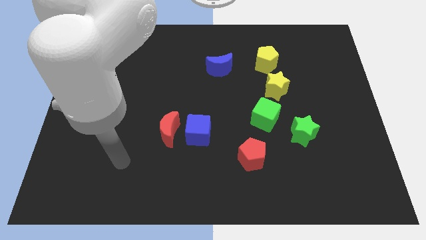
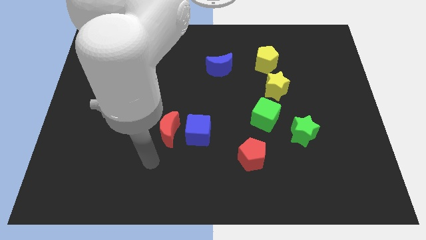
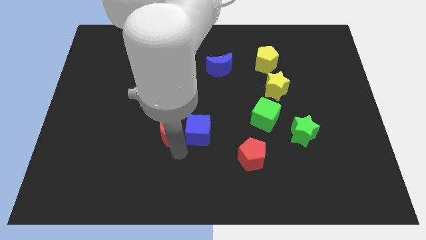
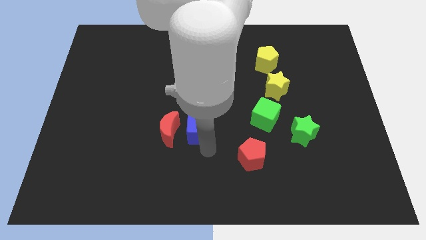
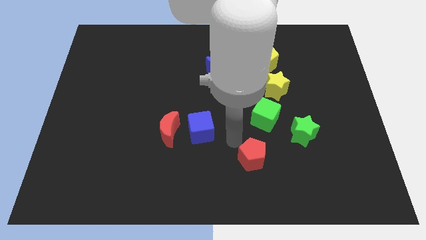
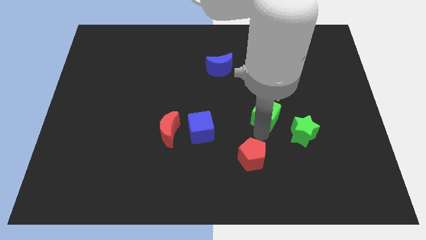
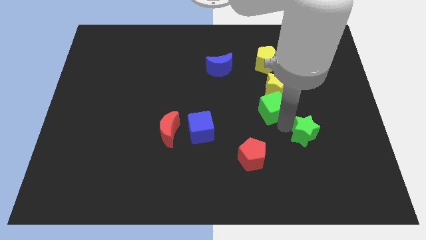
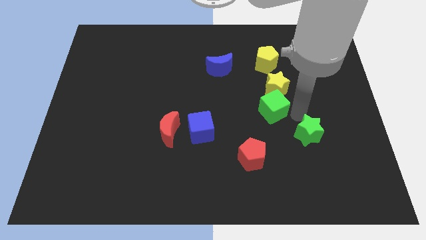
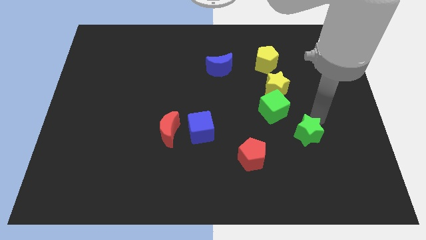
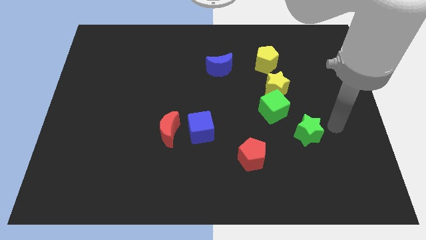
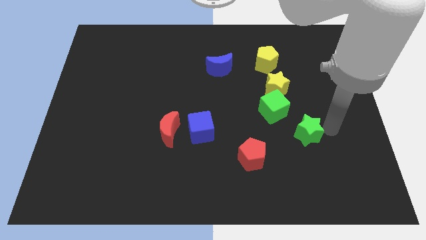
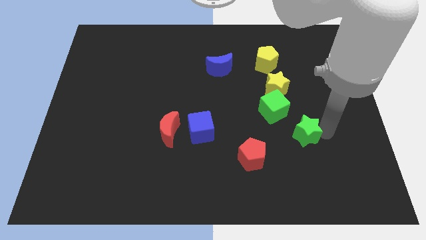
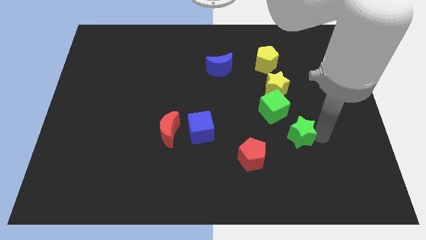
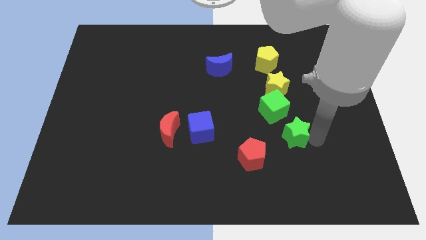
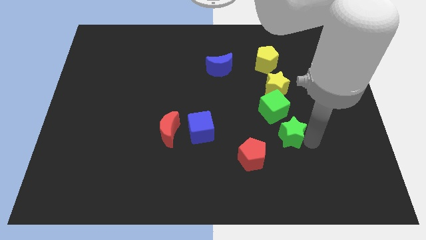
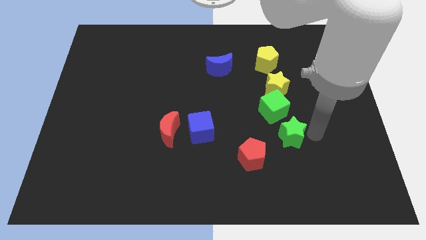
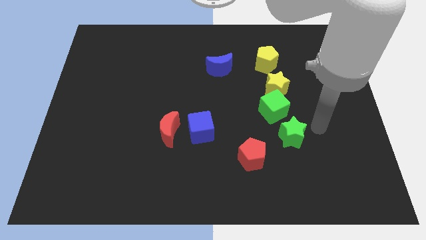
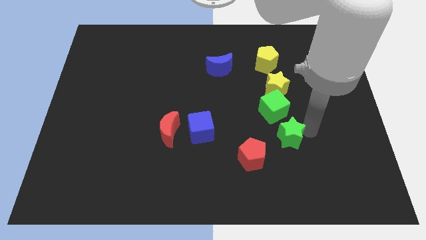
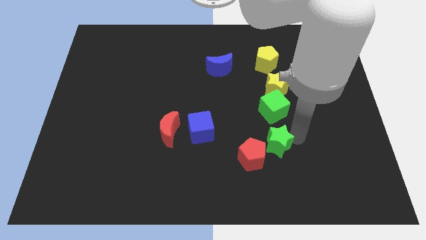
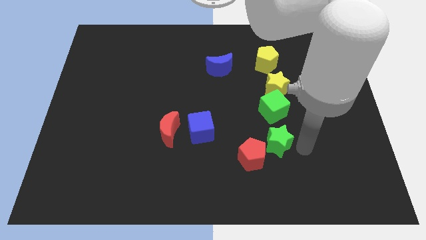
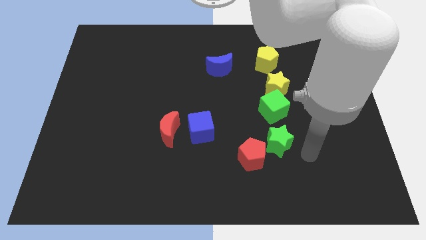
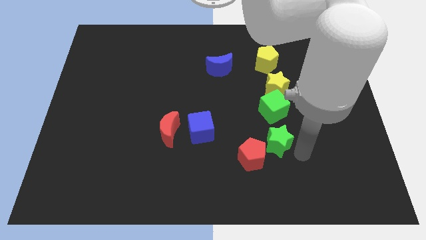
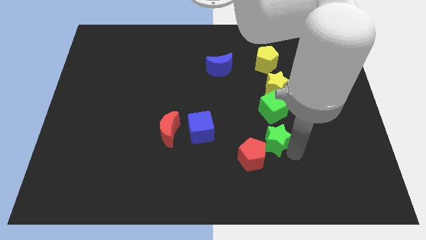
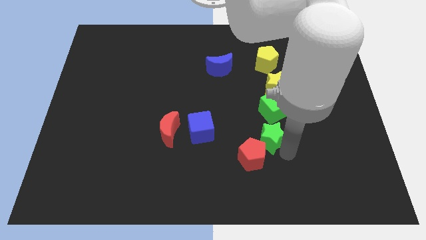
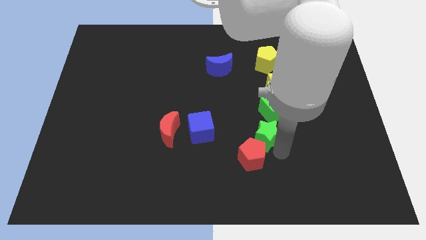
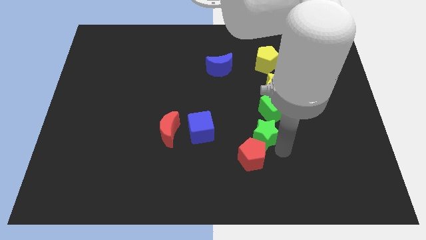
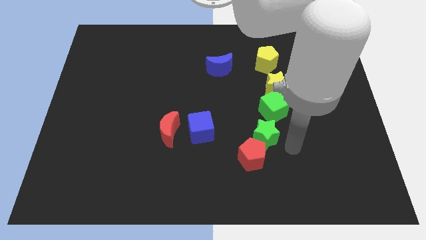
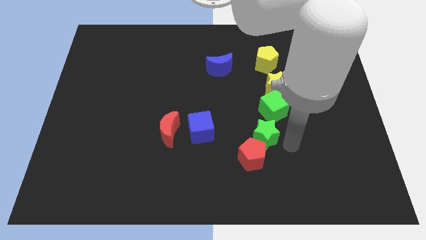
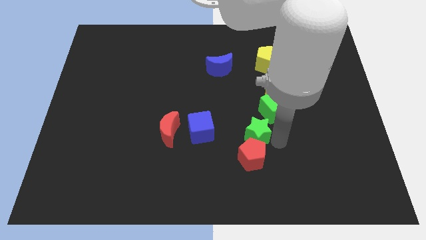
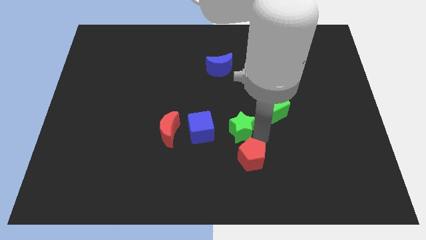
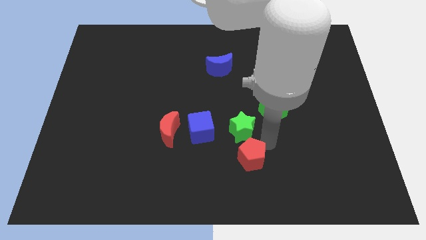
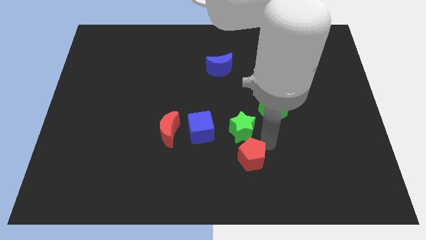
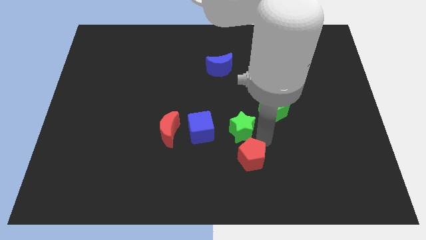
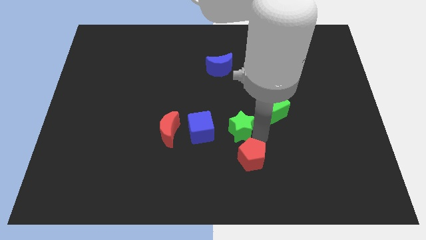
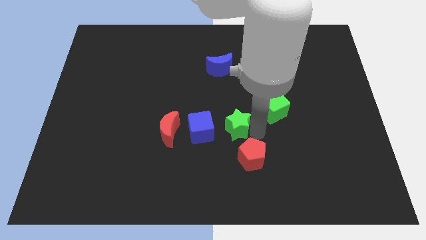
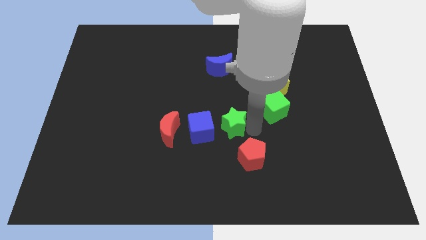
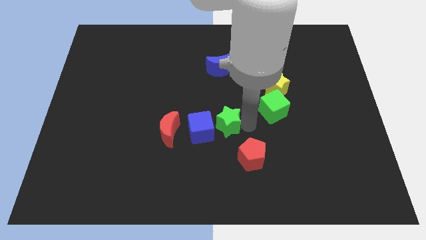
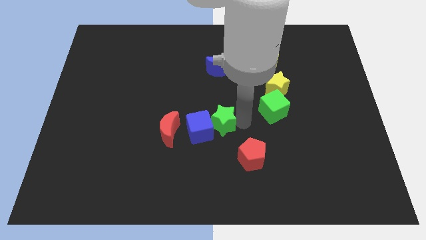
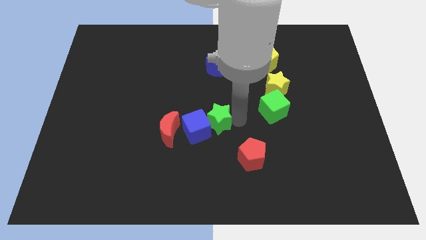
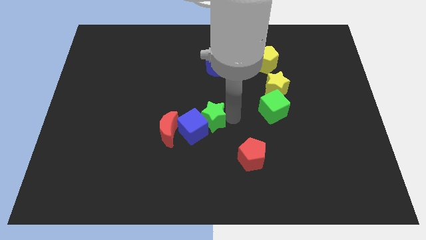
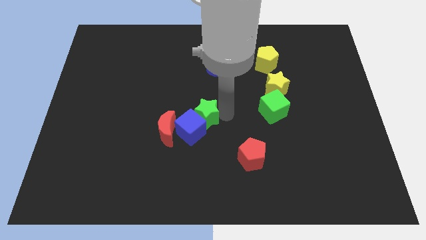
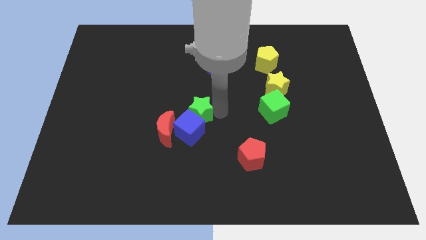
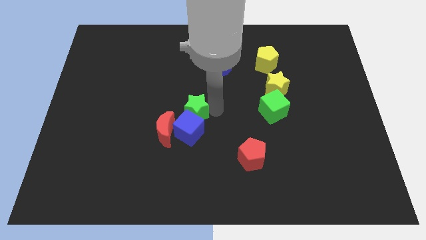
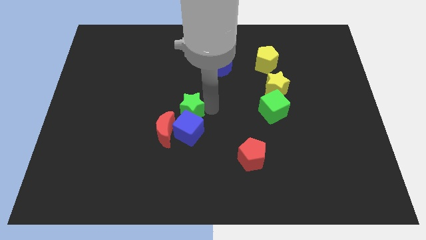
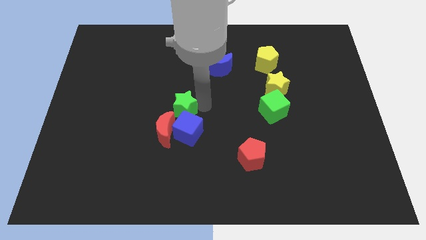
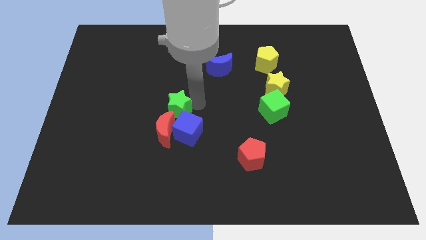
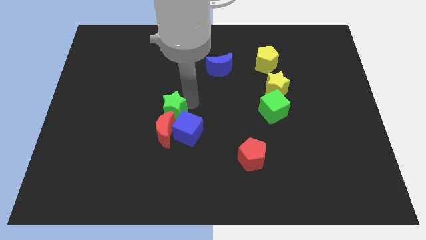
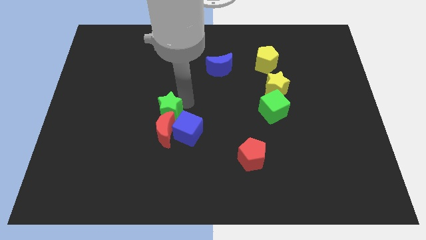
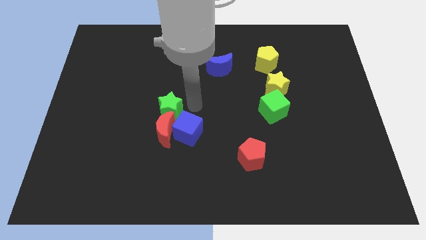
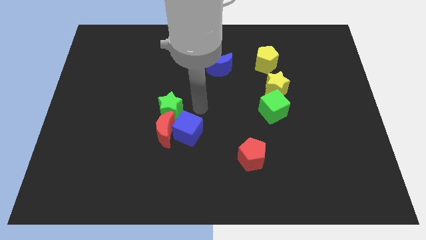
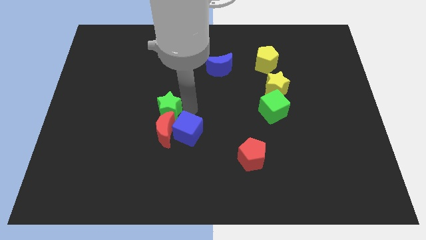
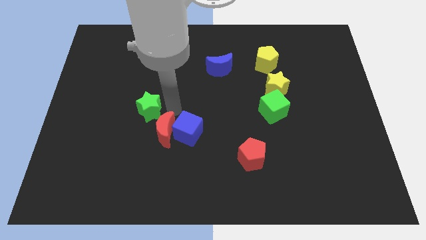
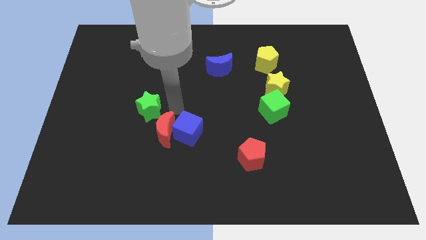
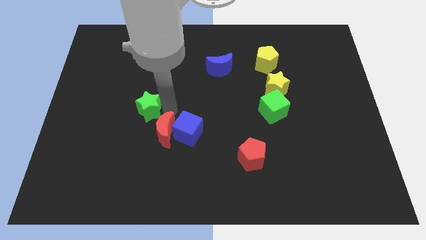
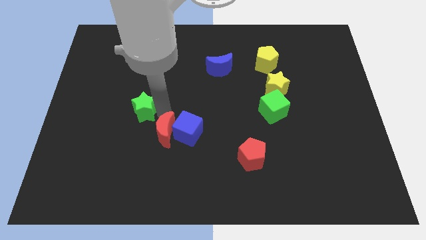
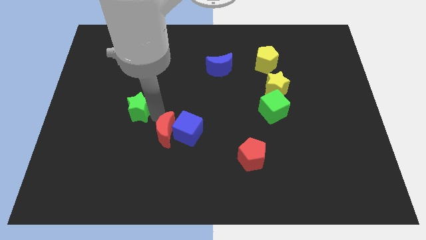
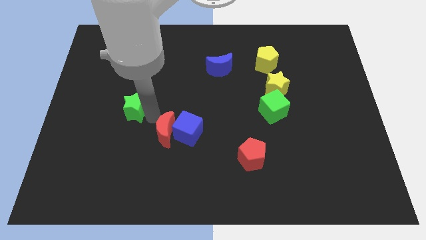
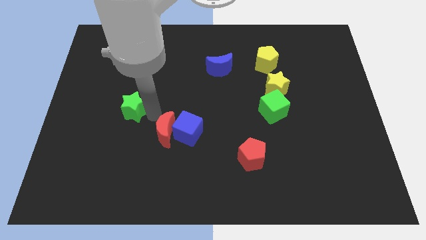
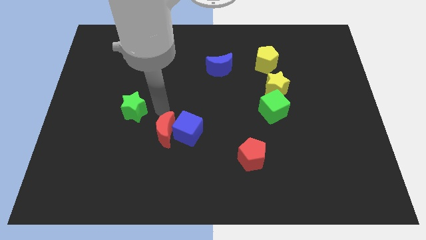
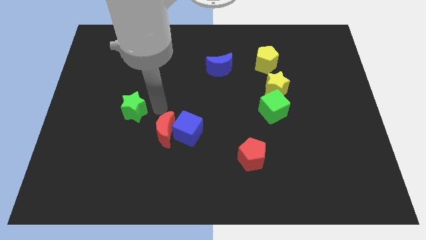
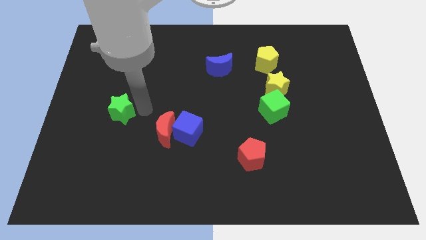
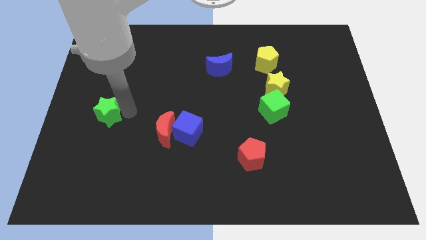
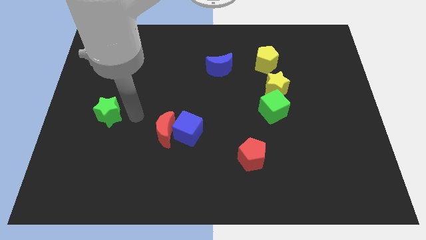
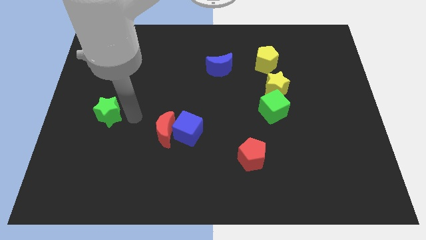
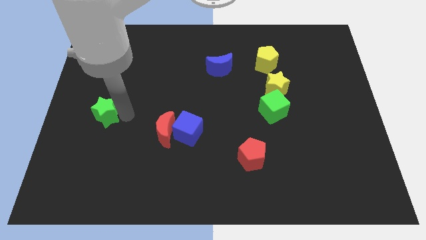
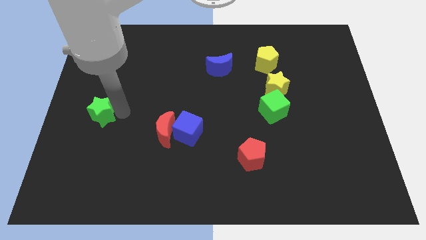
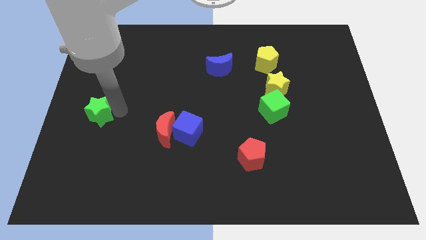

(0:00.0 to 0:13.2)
slide the green star to the left side
